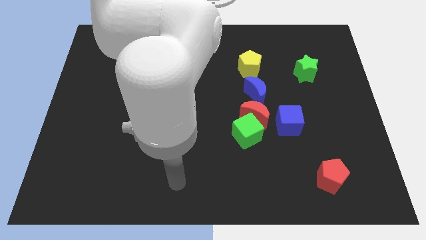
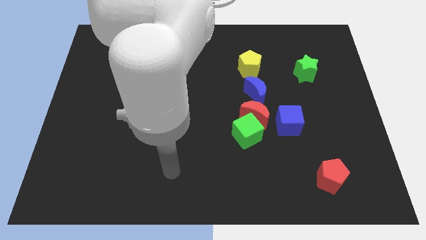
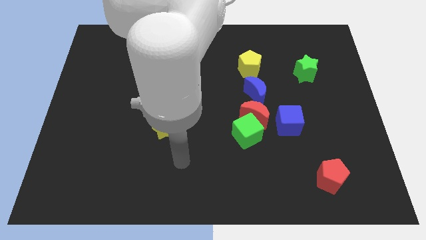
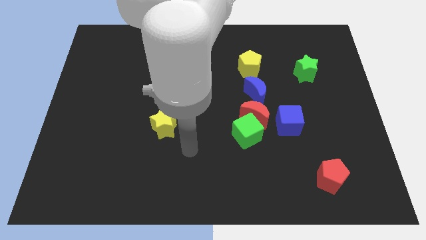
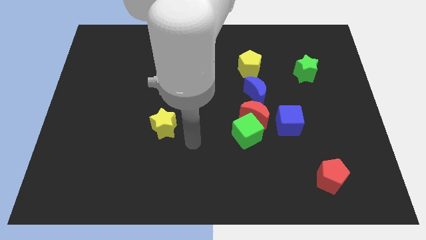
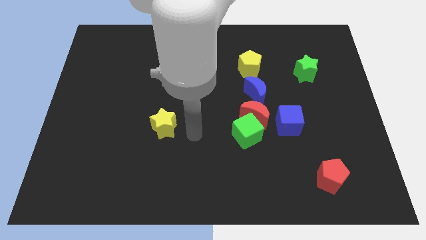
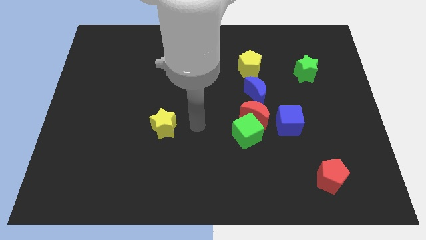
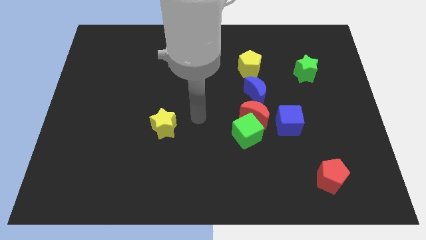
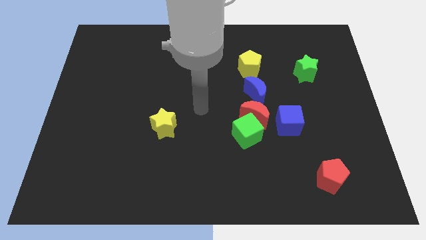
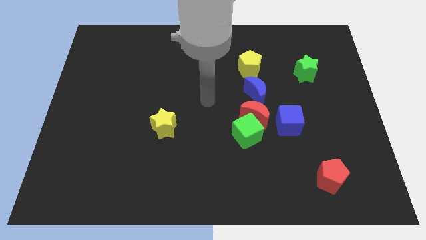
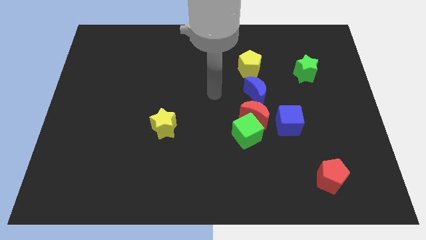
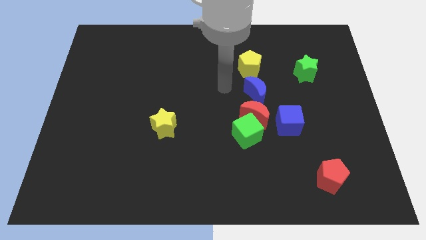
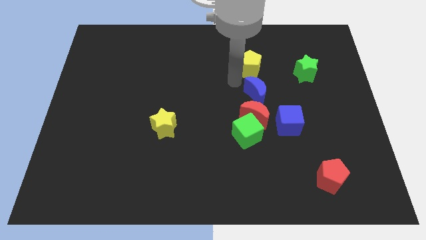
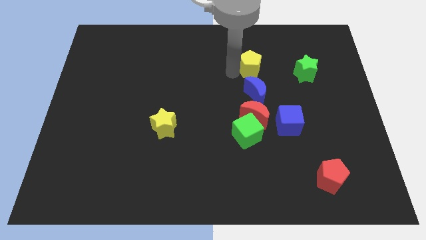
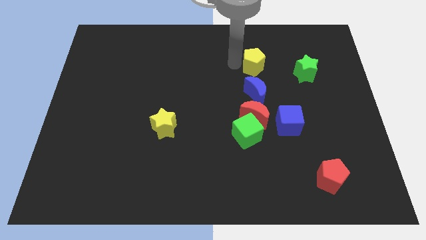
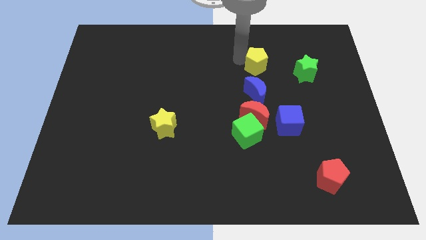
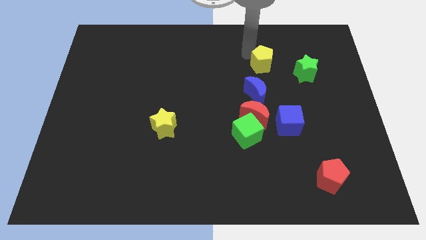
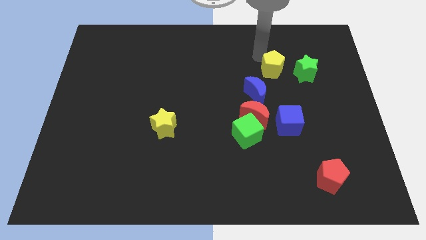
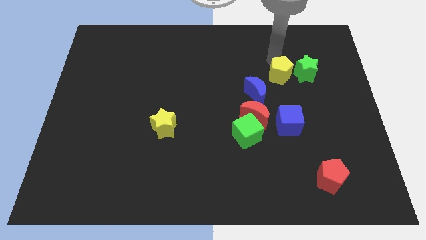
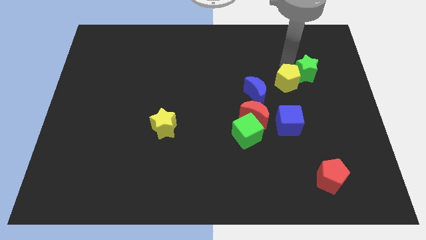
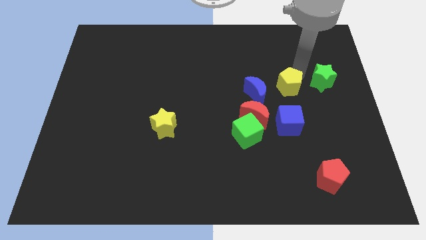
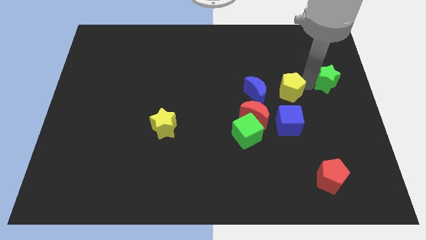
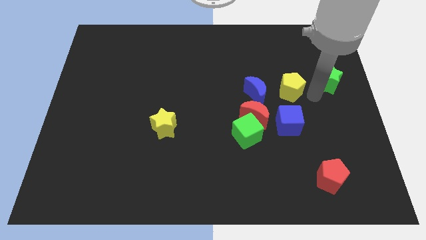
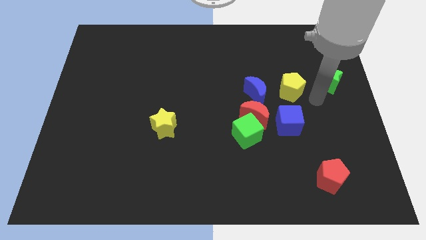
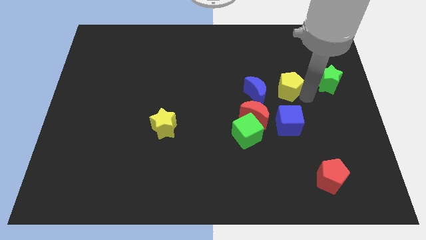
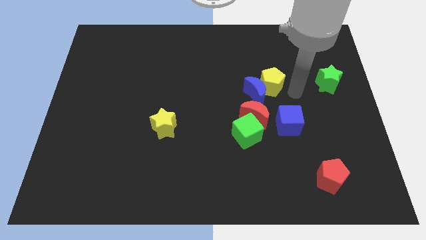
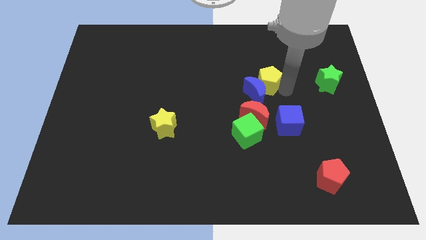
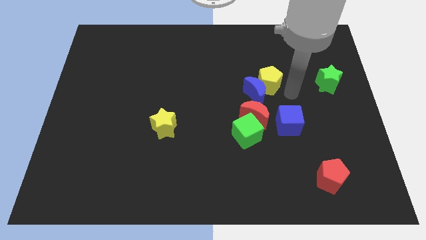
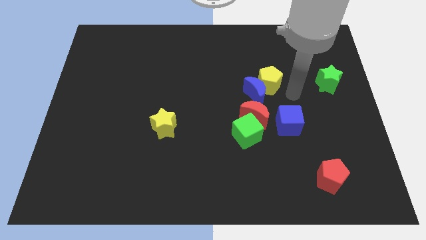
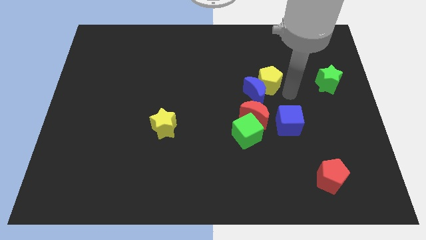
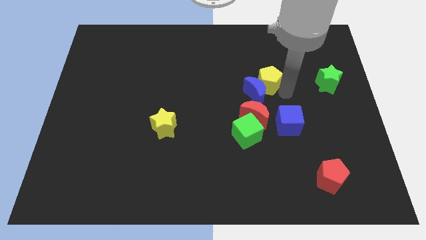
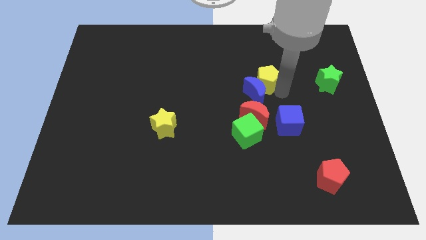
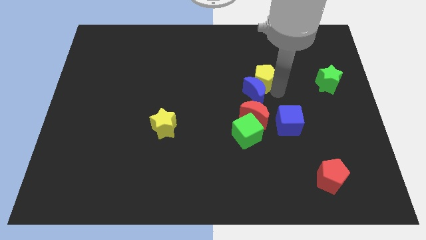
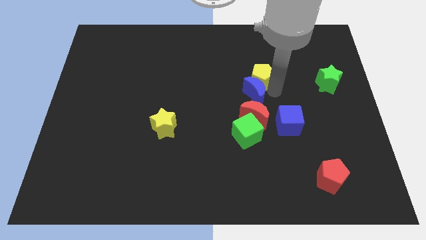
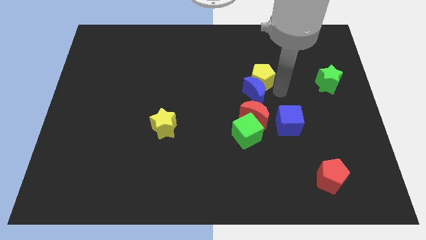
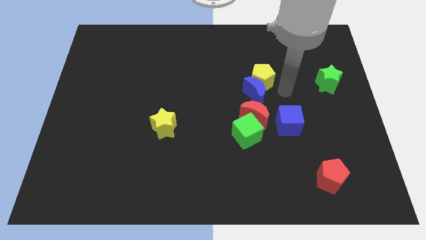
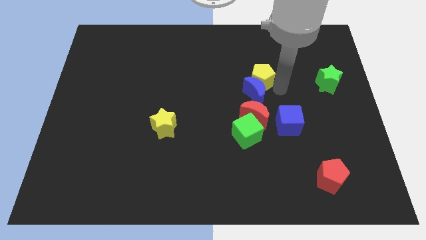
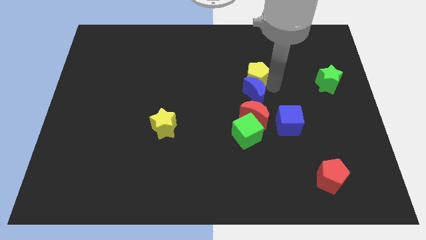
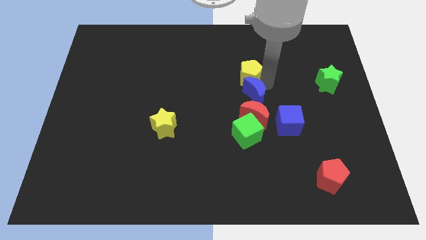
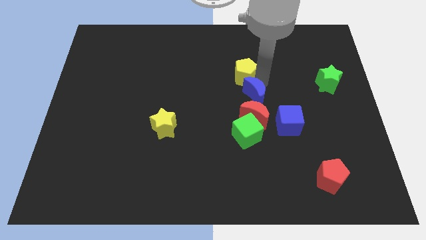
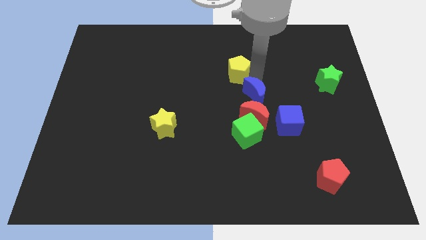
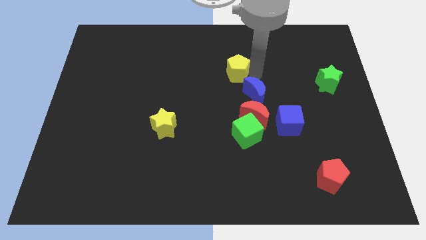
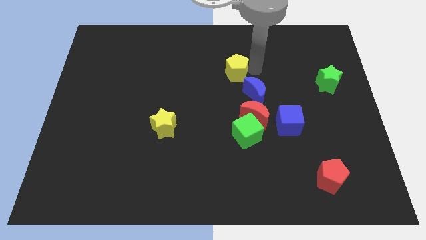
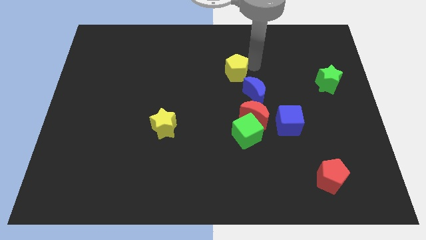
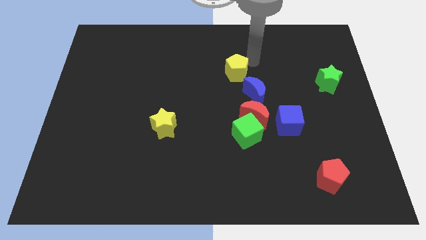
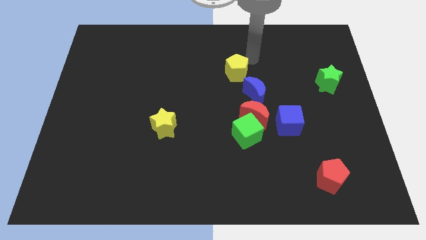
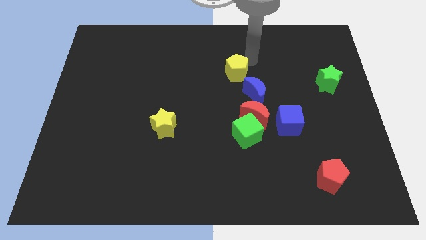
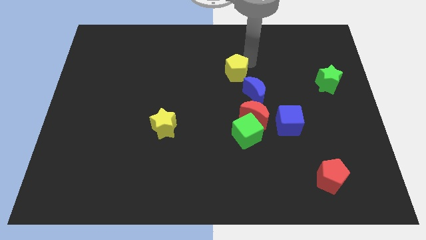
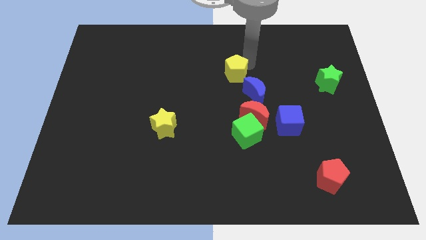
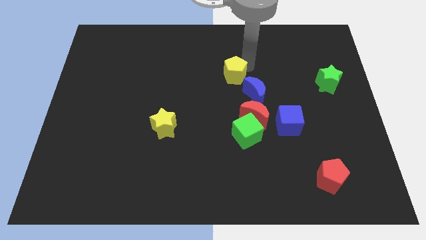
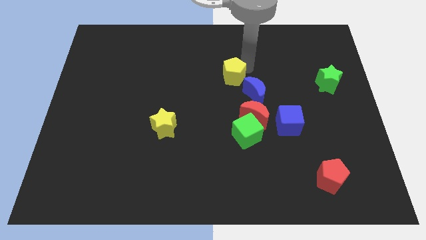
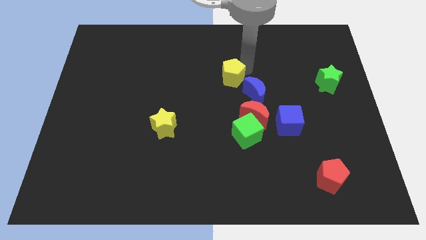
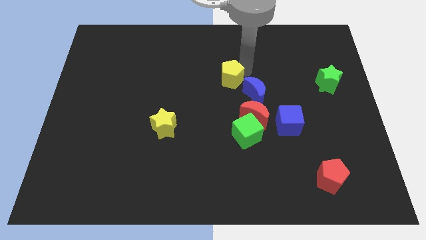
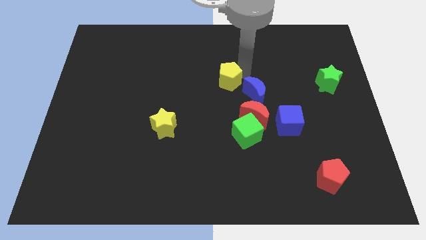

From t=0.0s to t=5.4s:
slightly slide the yellow pentagon down and then to the left

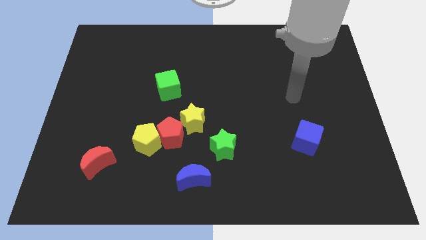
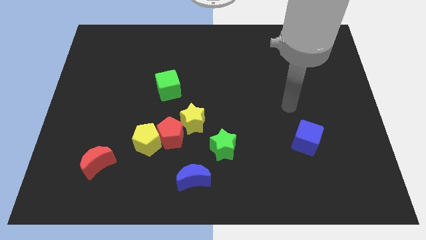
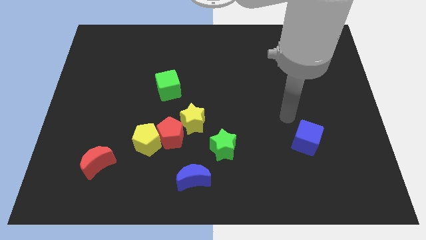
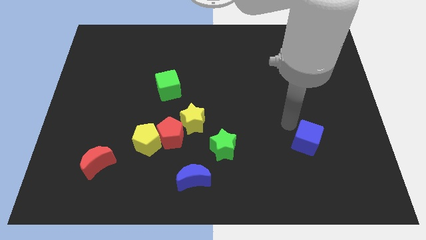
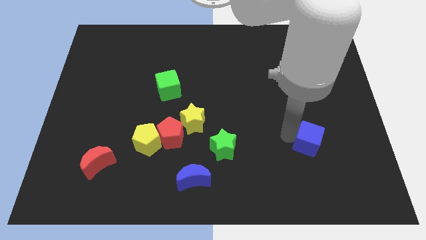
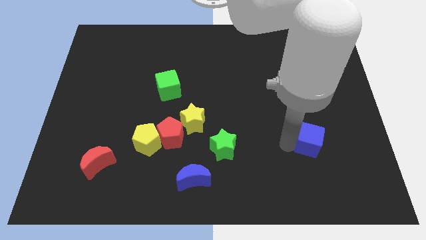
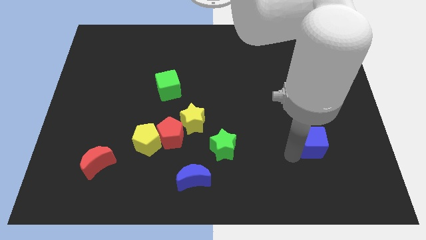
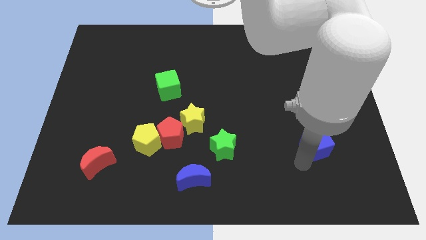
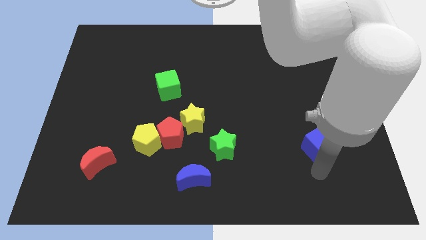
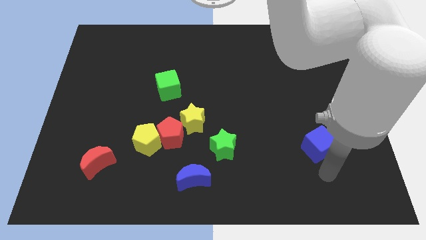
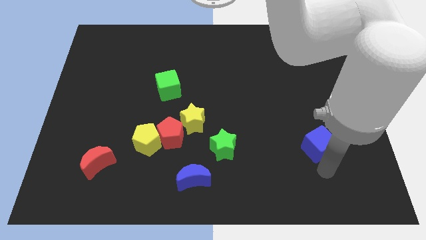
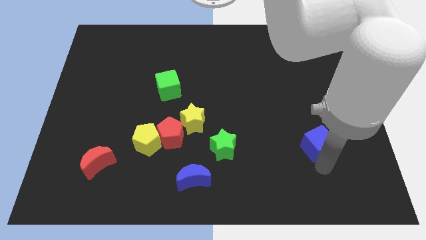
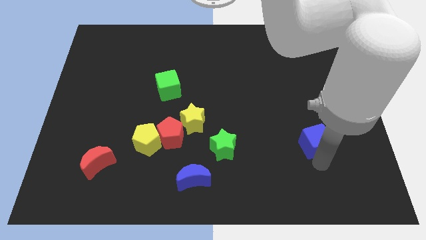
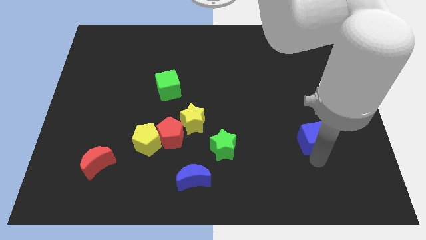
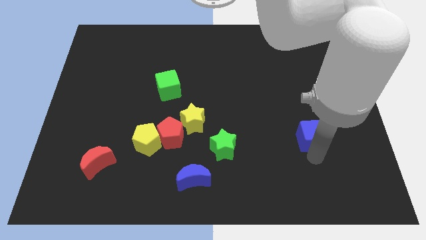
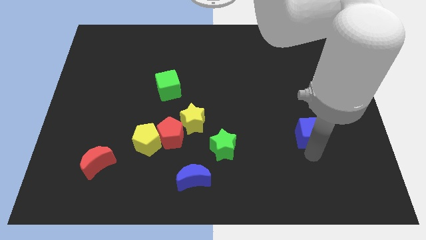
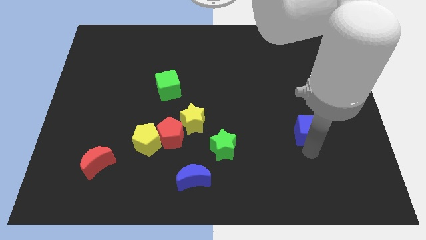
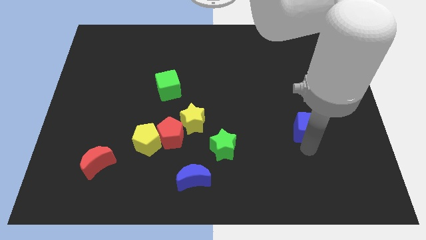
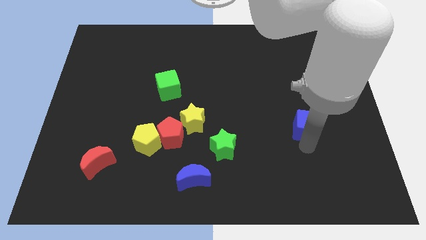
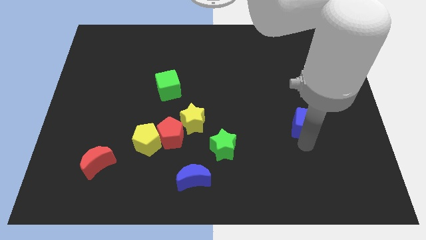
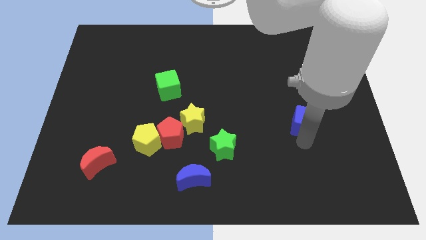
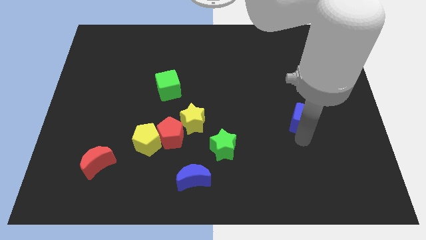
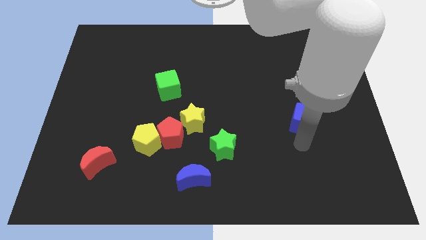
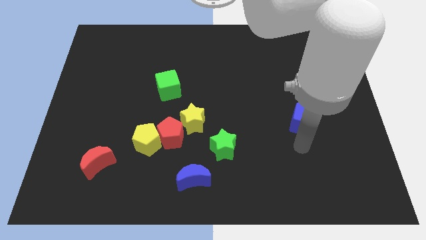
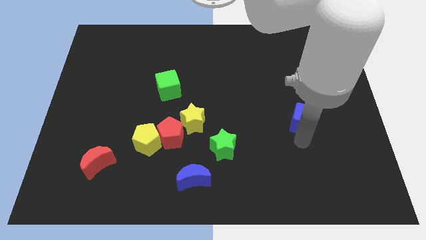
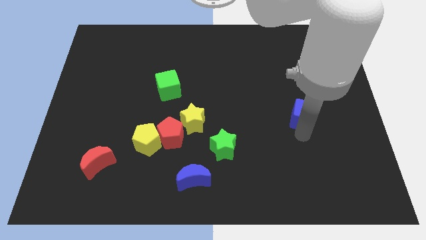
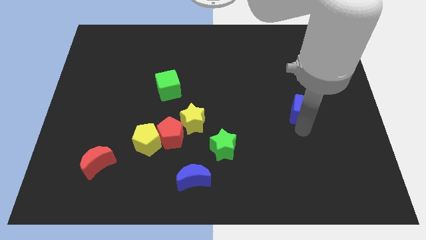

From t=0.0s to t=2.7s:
push the blue cube upwards somewhat
